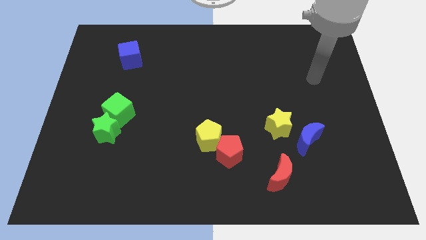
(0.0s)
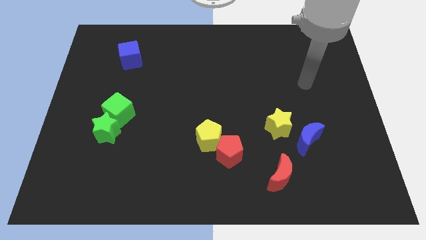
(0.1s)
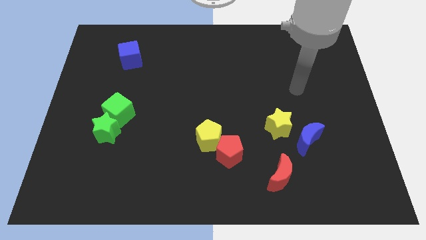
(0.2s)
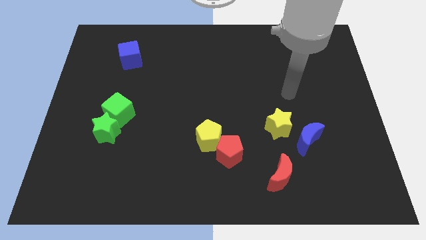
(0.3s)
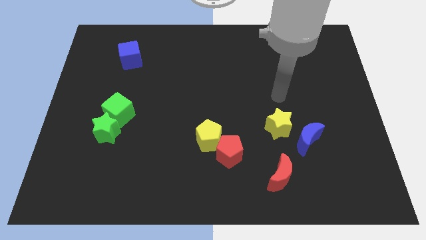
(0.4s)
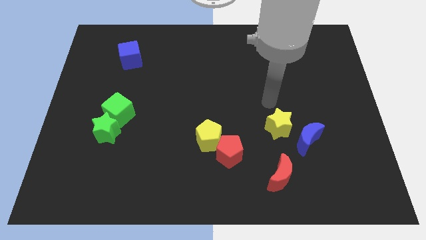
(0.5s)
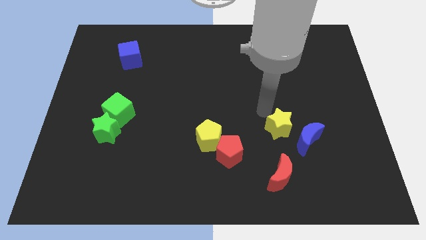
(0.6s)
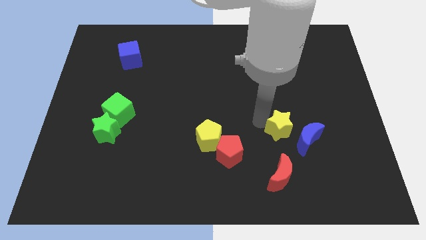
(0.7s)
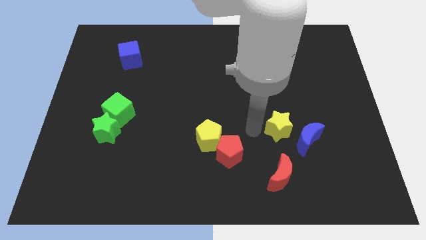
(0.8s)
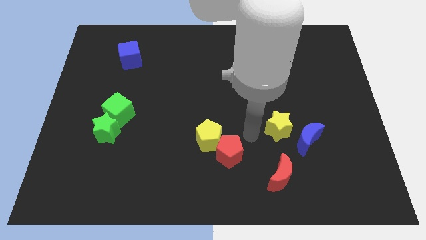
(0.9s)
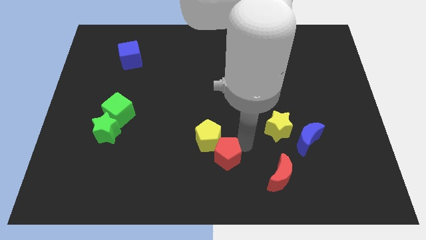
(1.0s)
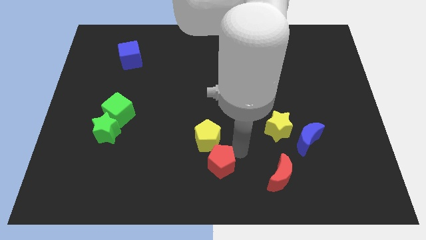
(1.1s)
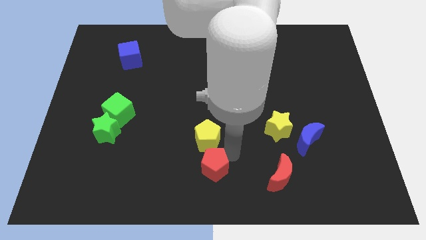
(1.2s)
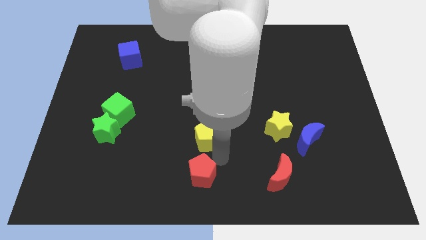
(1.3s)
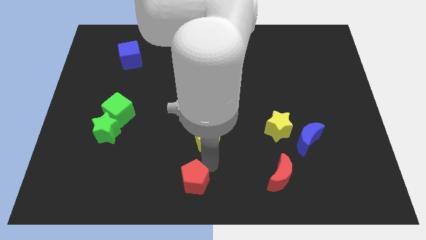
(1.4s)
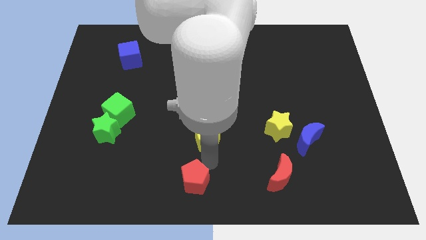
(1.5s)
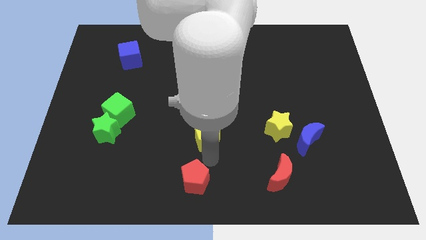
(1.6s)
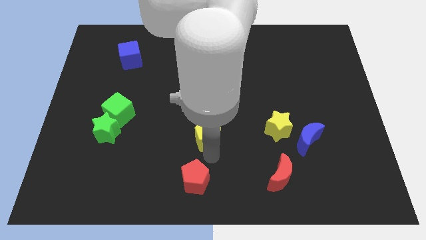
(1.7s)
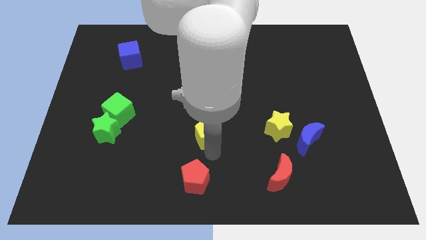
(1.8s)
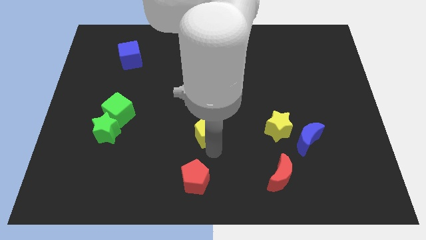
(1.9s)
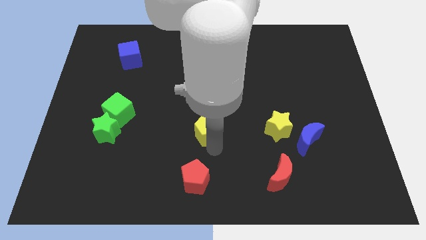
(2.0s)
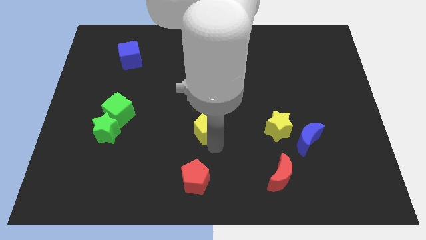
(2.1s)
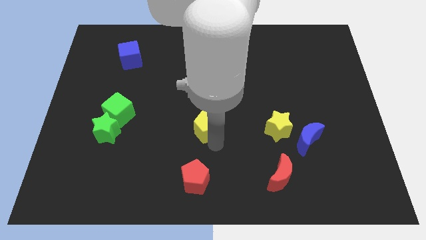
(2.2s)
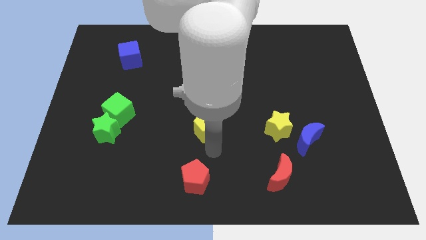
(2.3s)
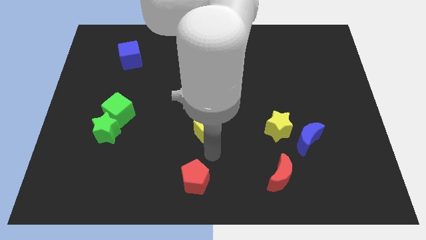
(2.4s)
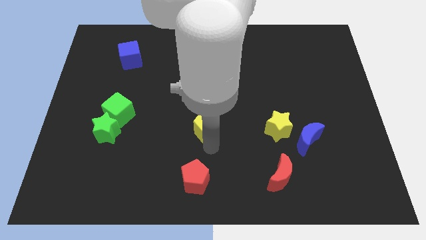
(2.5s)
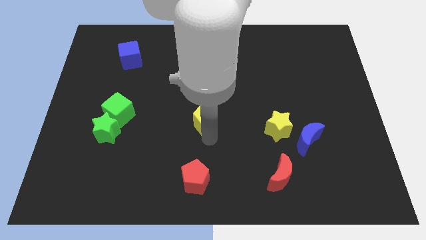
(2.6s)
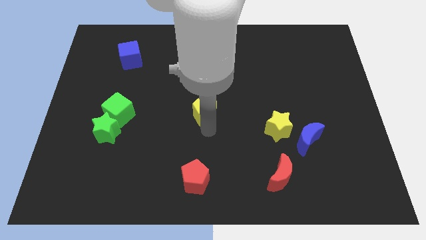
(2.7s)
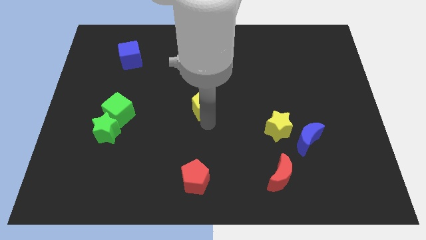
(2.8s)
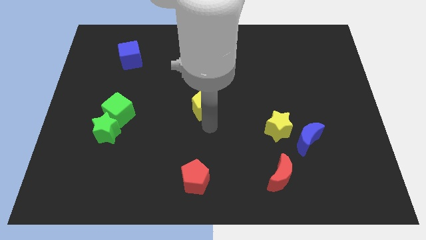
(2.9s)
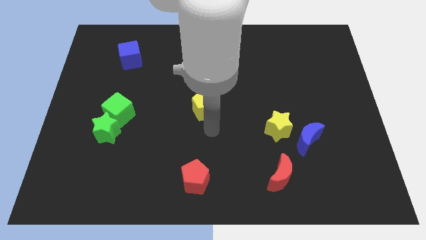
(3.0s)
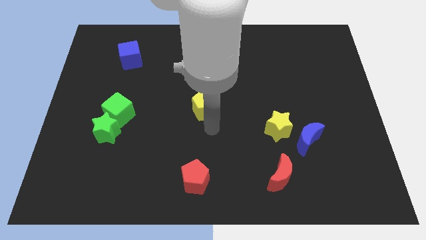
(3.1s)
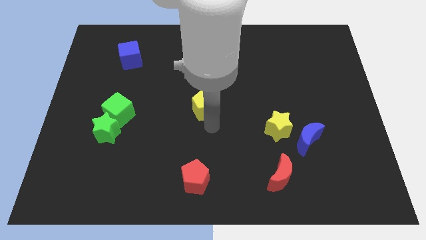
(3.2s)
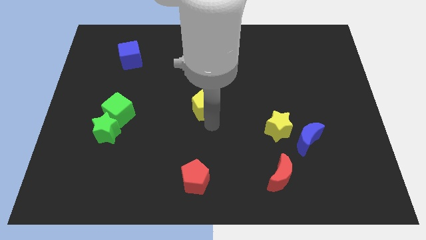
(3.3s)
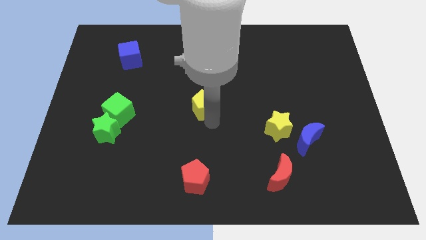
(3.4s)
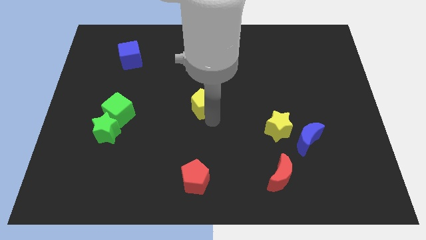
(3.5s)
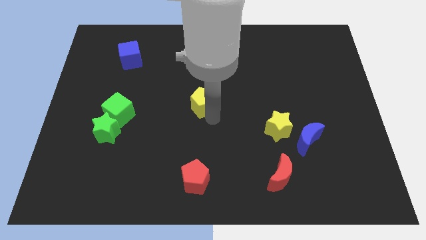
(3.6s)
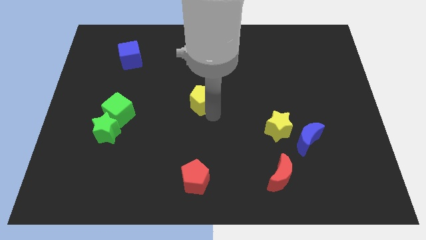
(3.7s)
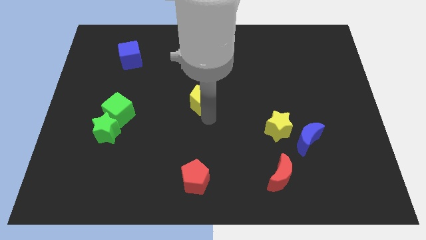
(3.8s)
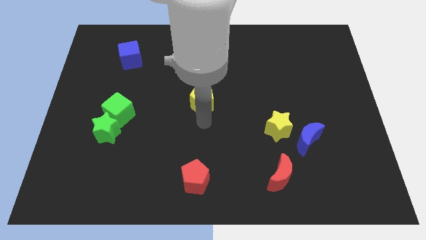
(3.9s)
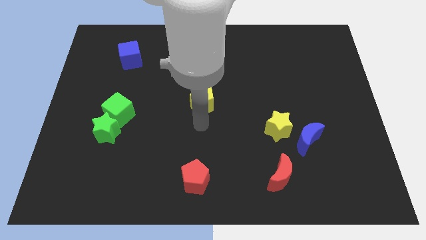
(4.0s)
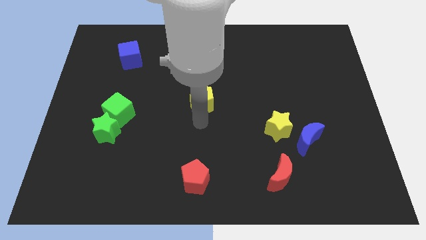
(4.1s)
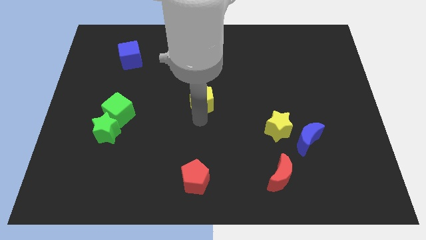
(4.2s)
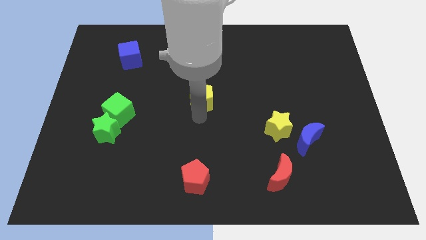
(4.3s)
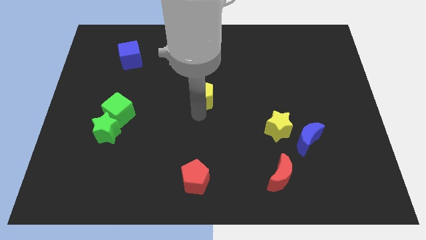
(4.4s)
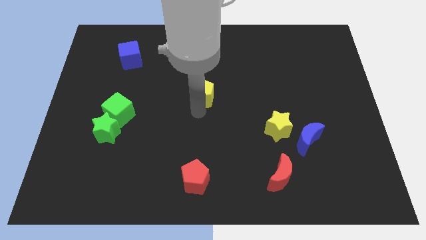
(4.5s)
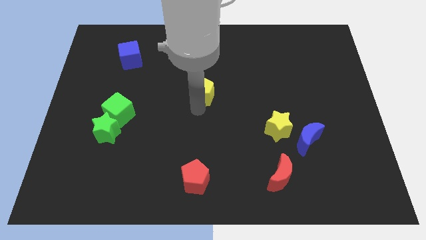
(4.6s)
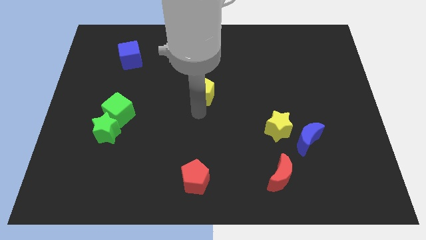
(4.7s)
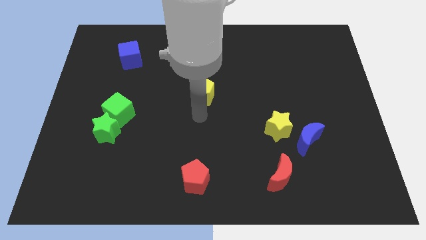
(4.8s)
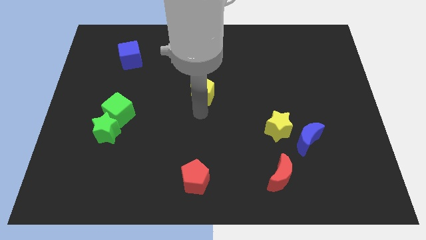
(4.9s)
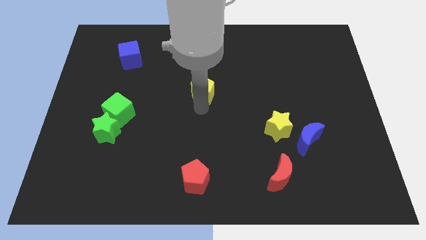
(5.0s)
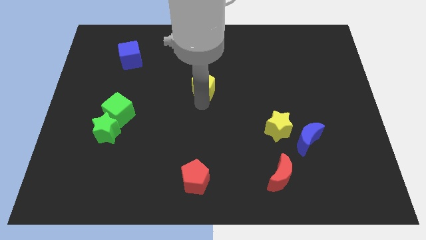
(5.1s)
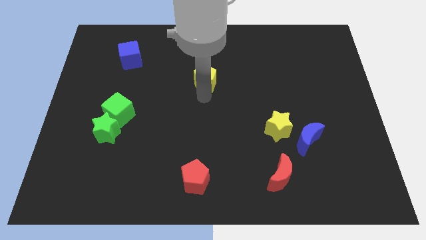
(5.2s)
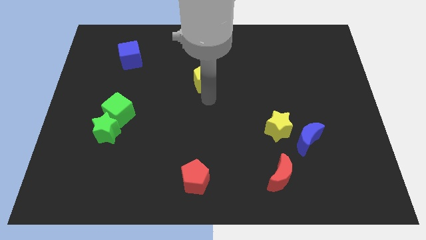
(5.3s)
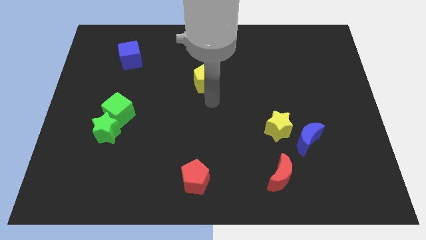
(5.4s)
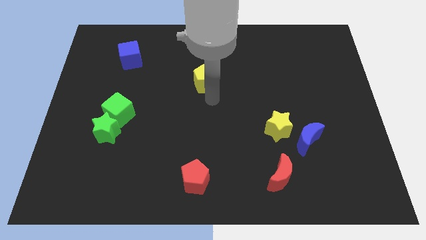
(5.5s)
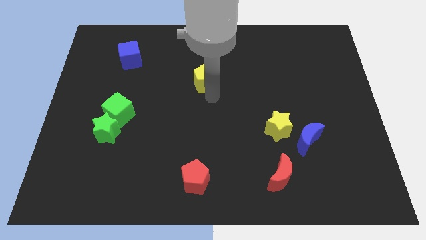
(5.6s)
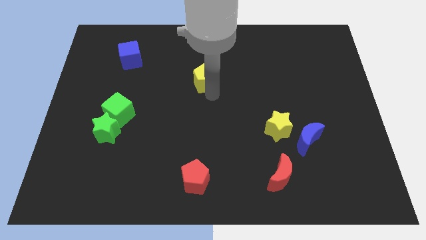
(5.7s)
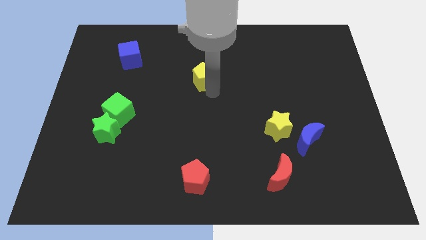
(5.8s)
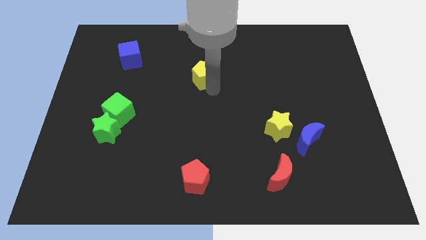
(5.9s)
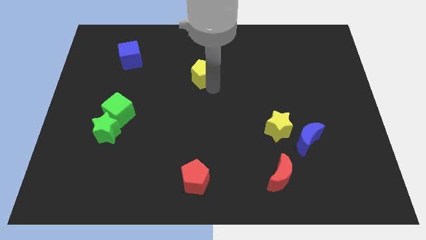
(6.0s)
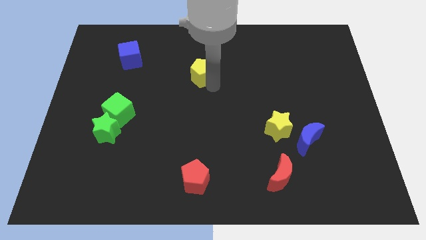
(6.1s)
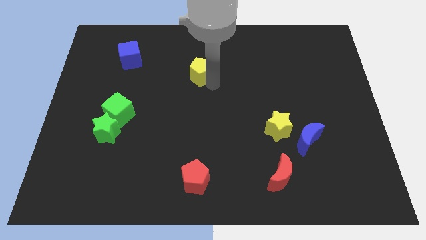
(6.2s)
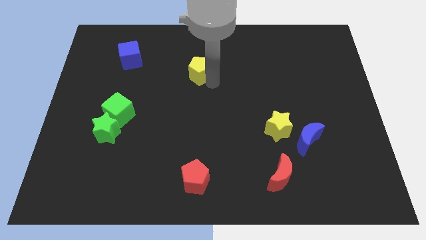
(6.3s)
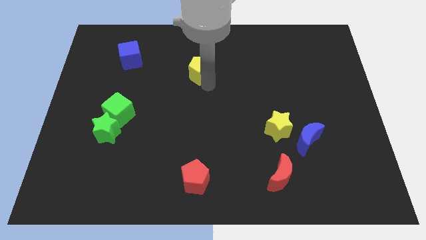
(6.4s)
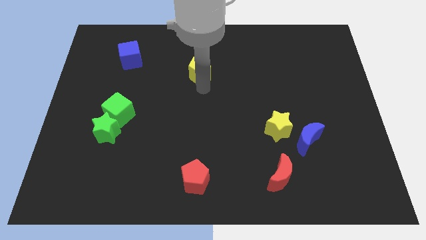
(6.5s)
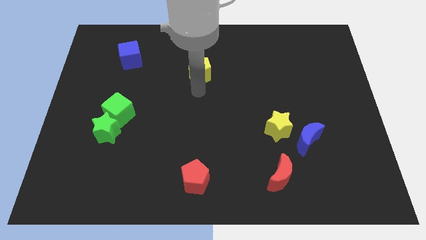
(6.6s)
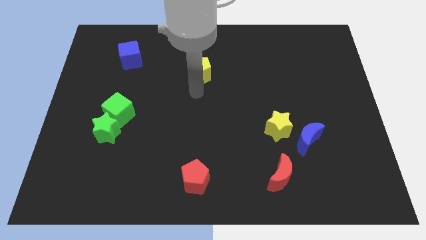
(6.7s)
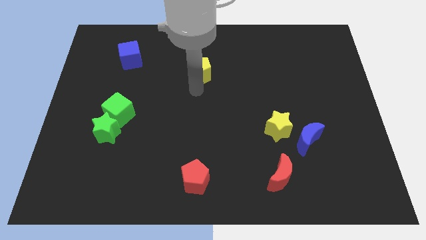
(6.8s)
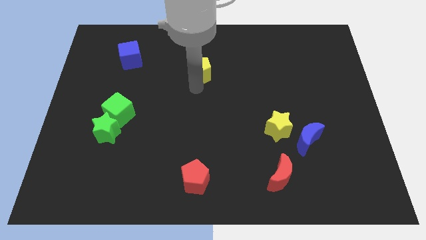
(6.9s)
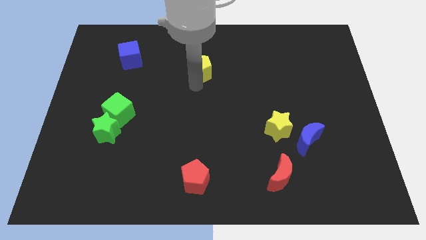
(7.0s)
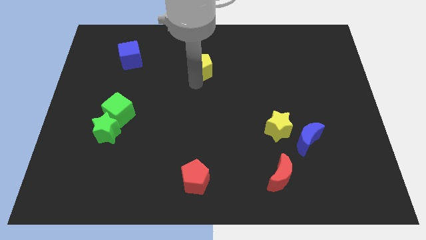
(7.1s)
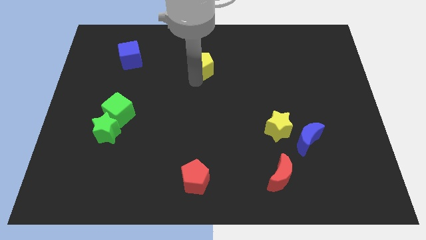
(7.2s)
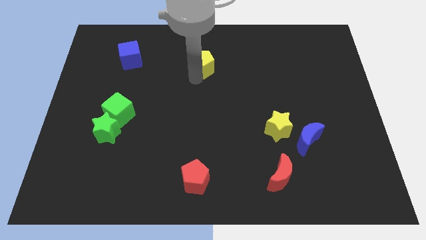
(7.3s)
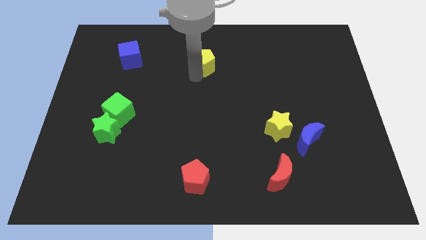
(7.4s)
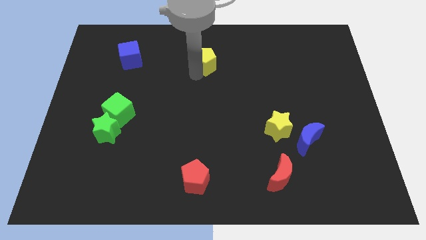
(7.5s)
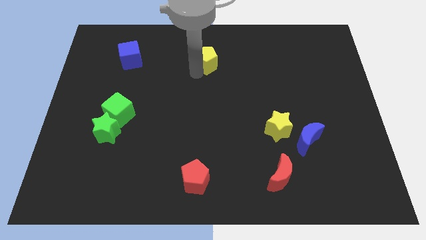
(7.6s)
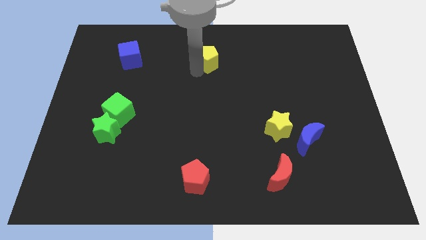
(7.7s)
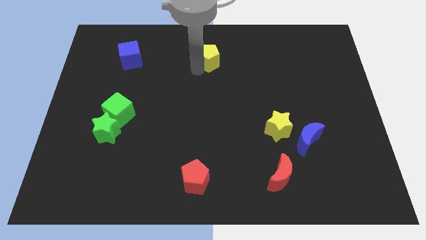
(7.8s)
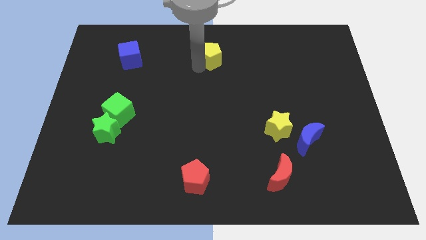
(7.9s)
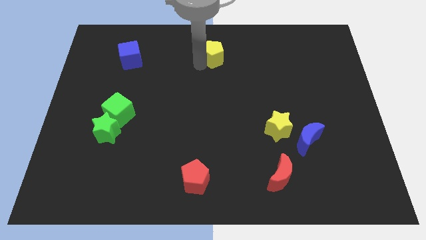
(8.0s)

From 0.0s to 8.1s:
put the yellow pentagon to the top side
